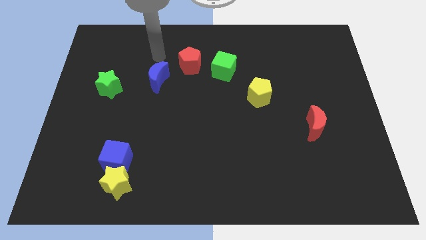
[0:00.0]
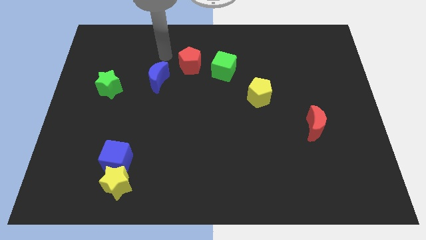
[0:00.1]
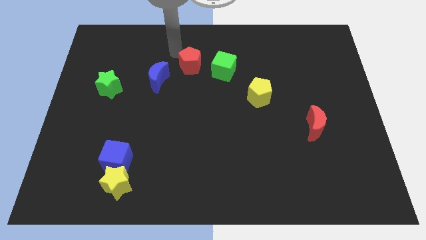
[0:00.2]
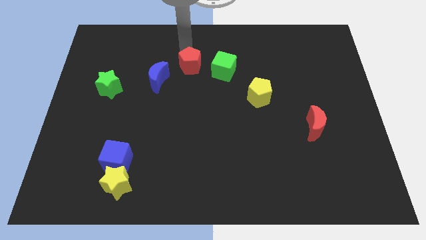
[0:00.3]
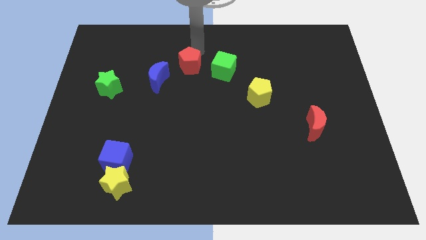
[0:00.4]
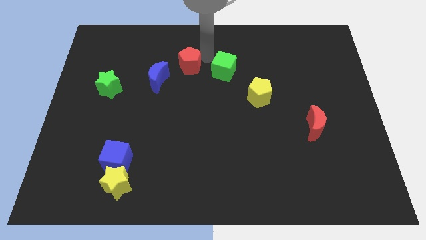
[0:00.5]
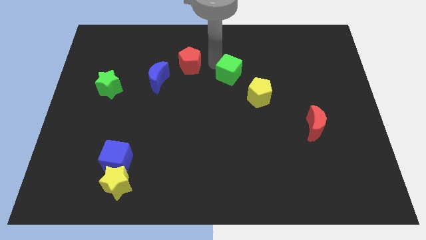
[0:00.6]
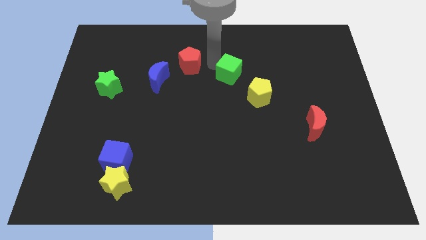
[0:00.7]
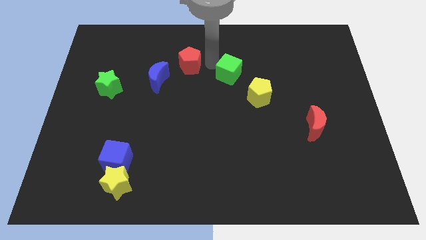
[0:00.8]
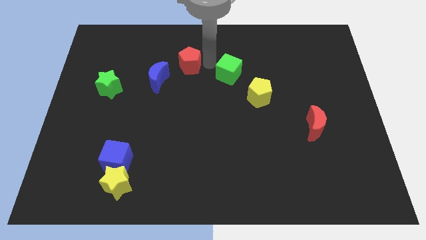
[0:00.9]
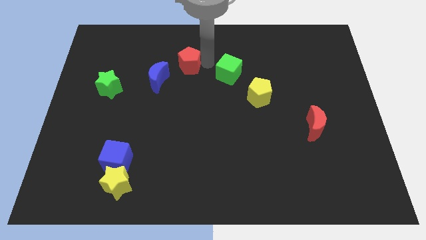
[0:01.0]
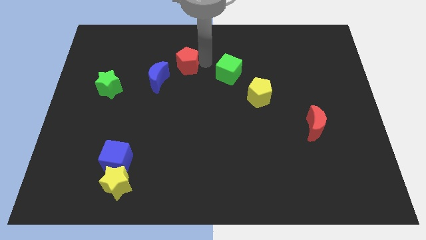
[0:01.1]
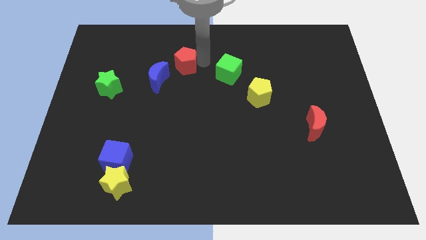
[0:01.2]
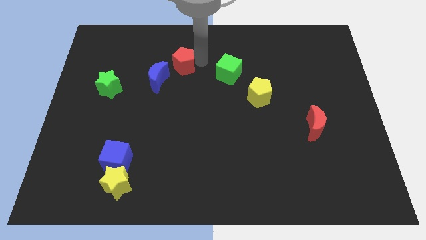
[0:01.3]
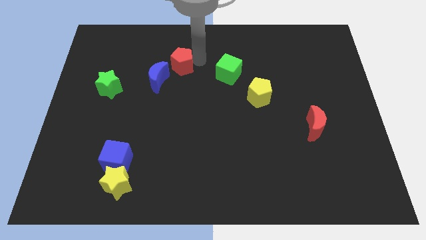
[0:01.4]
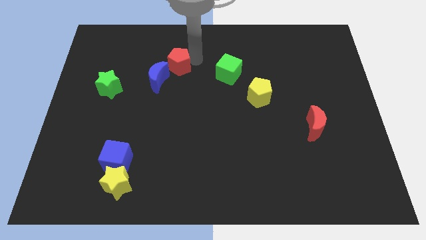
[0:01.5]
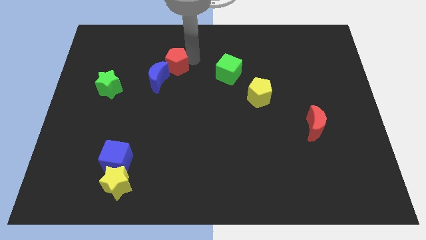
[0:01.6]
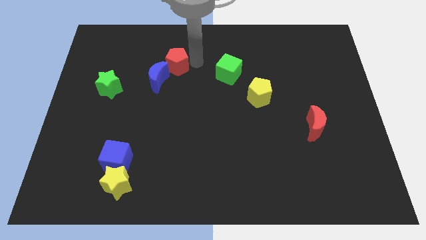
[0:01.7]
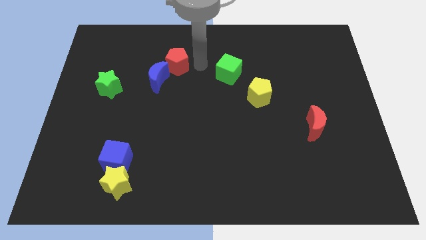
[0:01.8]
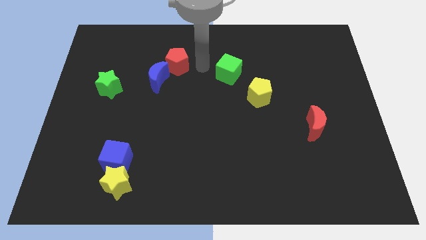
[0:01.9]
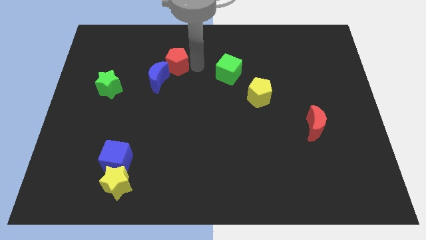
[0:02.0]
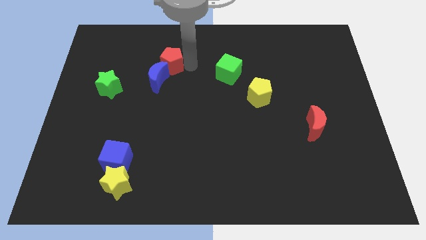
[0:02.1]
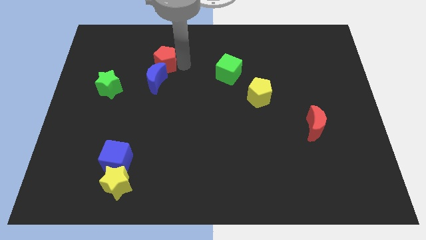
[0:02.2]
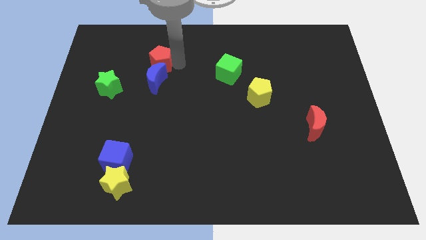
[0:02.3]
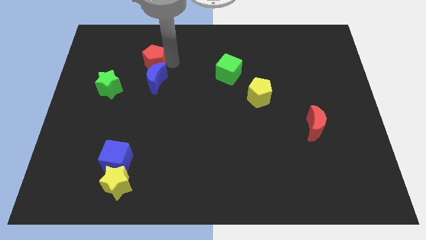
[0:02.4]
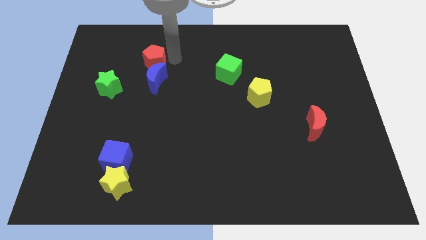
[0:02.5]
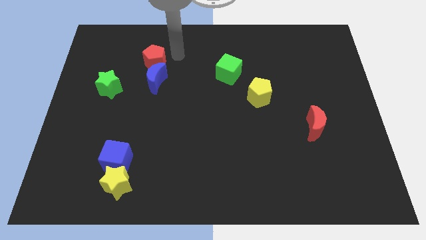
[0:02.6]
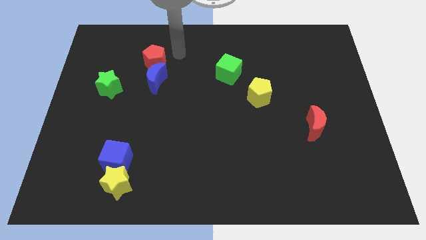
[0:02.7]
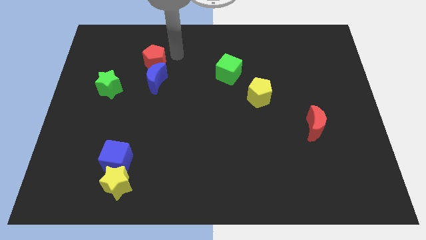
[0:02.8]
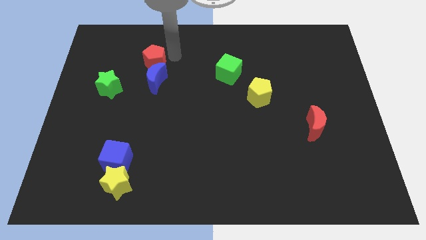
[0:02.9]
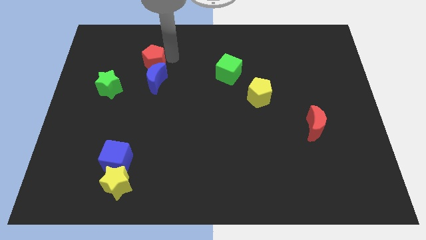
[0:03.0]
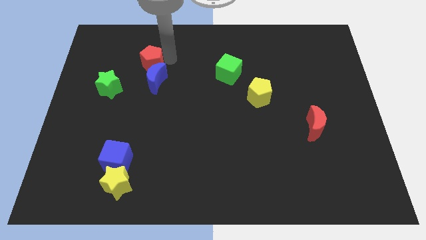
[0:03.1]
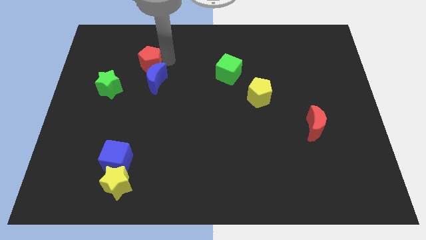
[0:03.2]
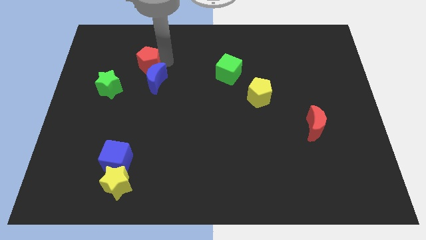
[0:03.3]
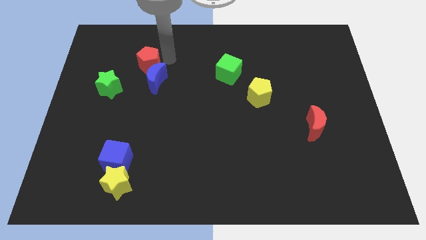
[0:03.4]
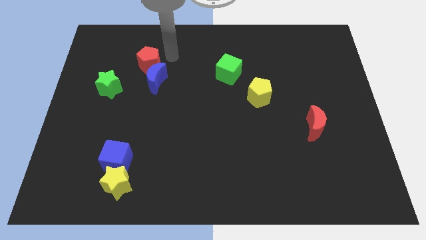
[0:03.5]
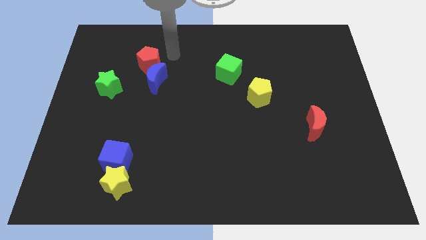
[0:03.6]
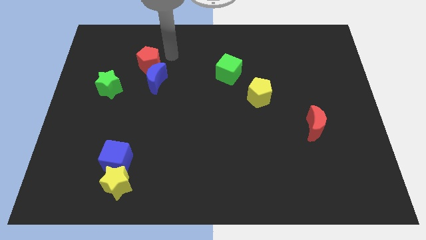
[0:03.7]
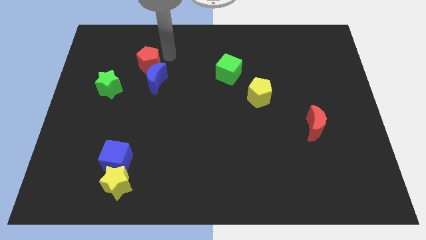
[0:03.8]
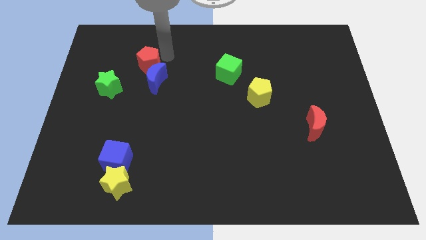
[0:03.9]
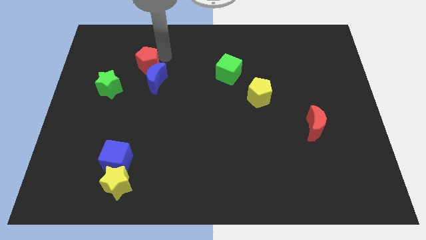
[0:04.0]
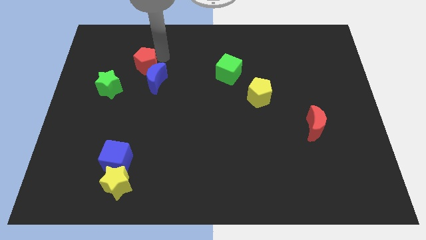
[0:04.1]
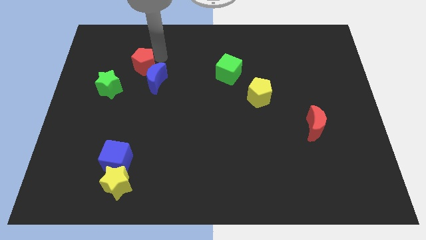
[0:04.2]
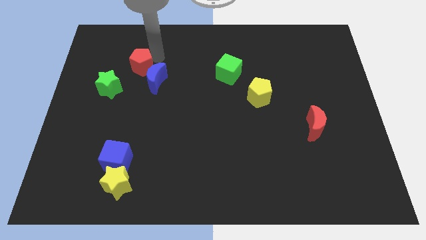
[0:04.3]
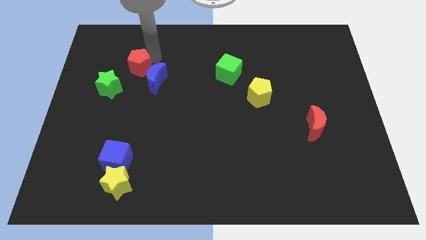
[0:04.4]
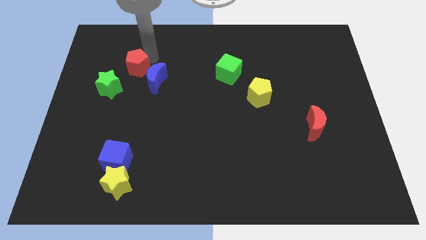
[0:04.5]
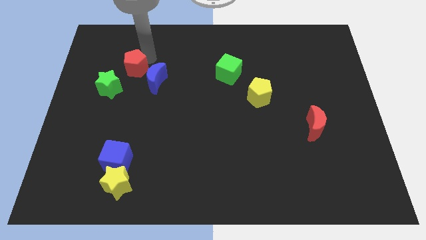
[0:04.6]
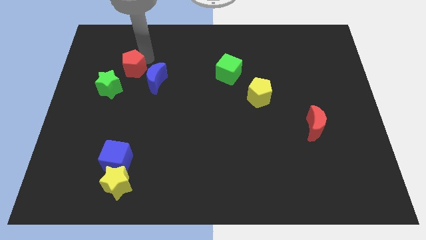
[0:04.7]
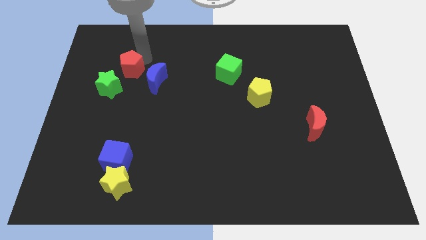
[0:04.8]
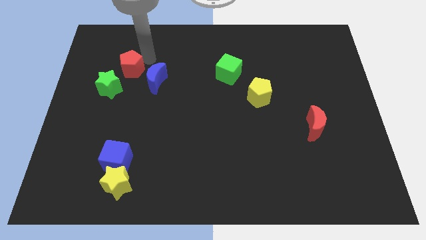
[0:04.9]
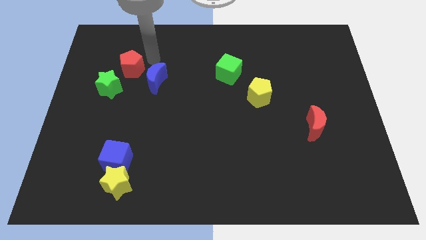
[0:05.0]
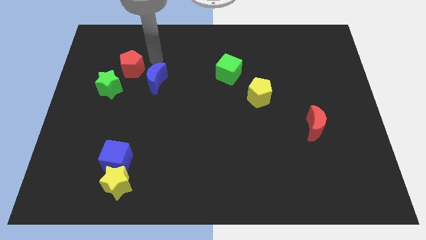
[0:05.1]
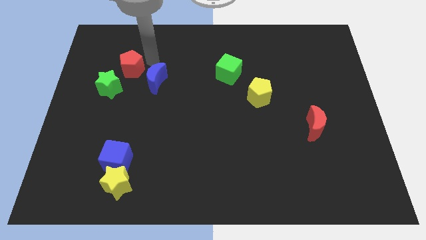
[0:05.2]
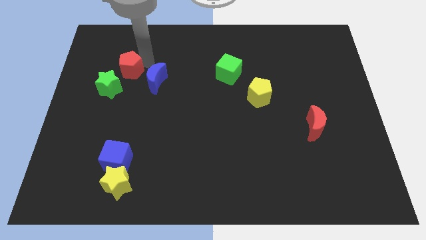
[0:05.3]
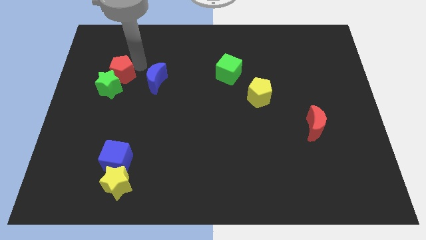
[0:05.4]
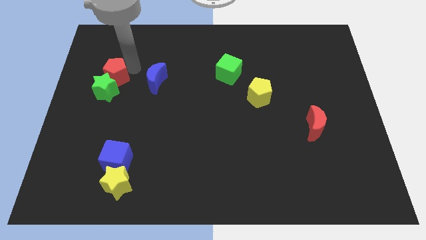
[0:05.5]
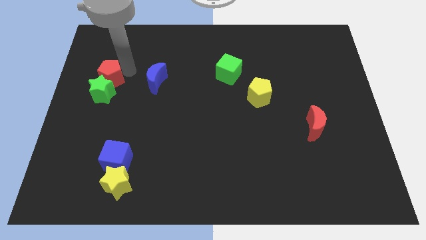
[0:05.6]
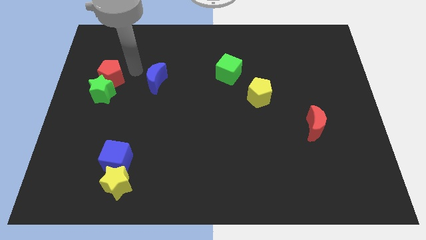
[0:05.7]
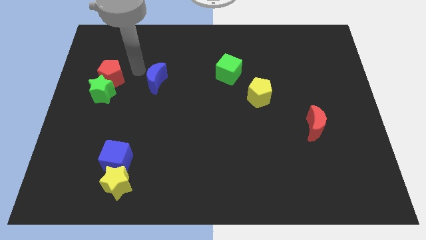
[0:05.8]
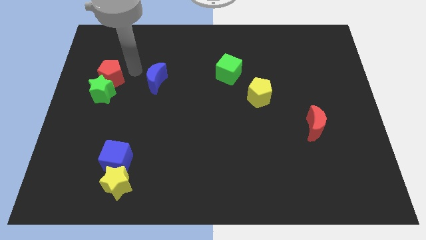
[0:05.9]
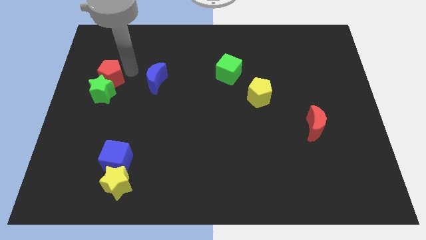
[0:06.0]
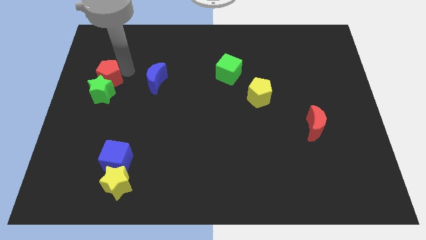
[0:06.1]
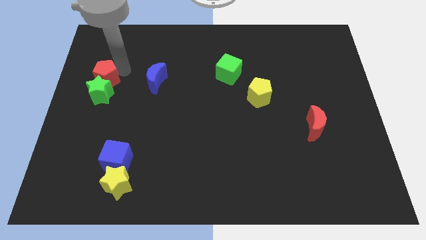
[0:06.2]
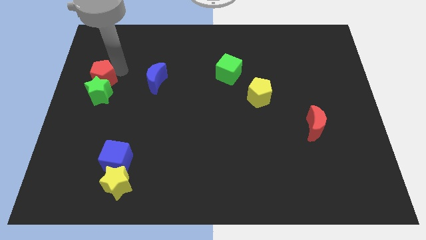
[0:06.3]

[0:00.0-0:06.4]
move the red pentagon to the left side
